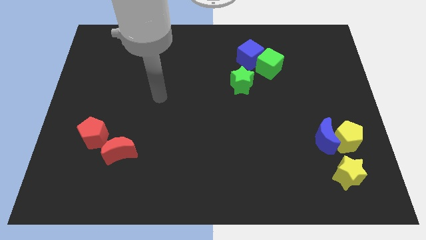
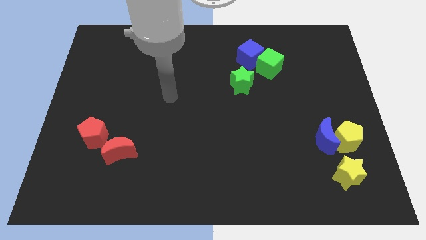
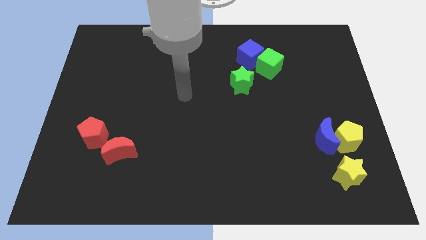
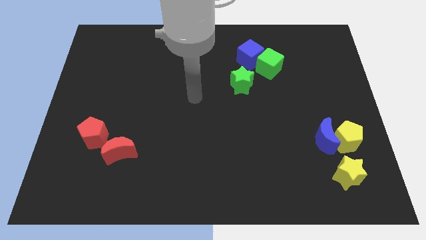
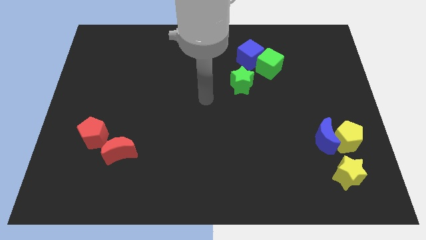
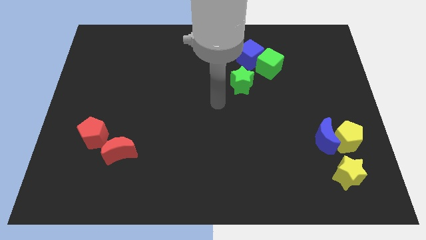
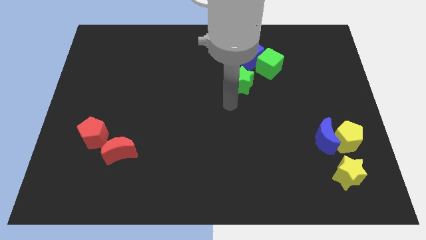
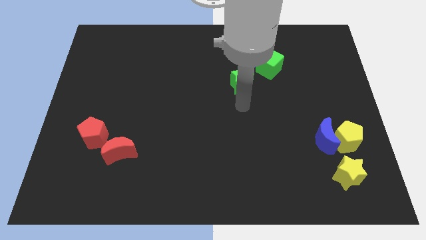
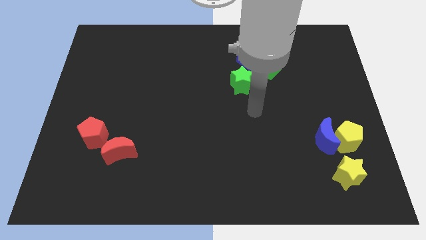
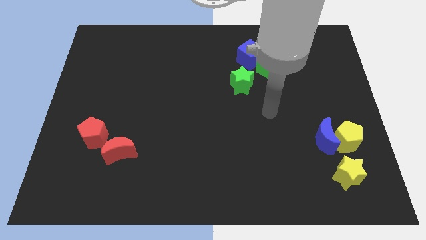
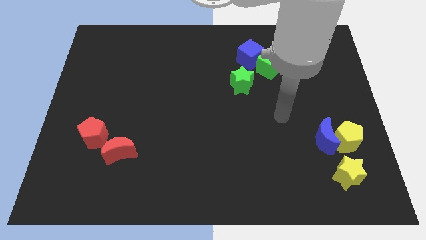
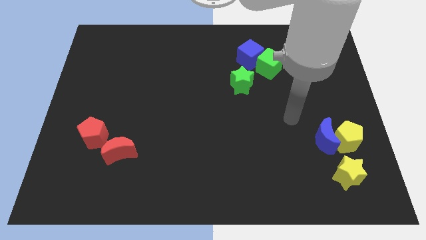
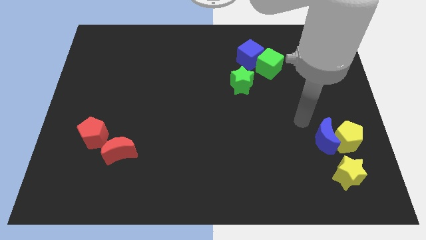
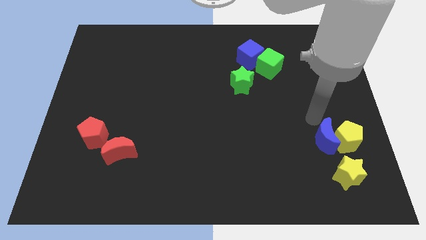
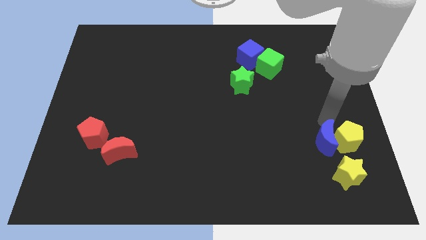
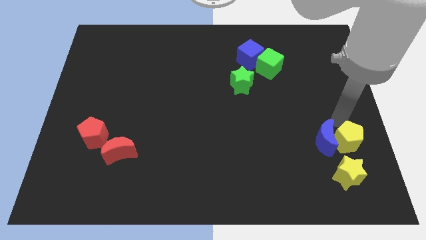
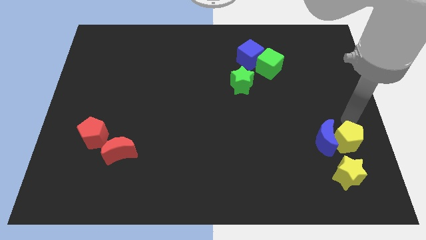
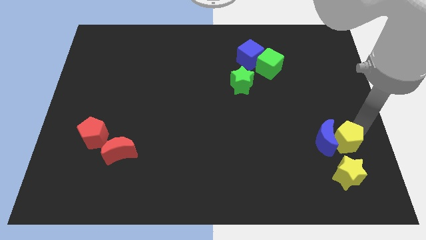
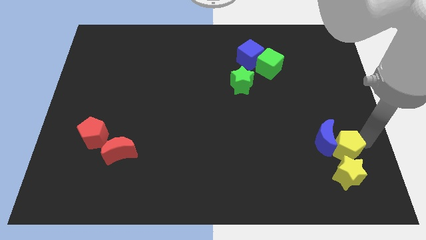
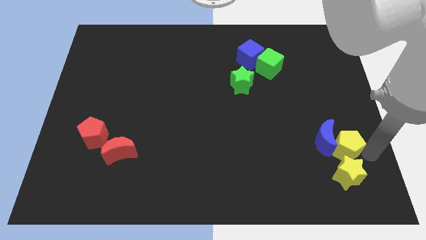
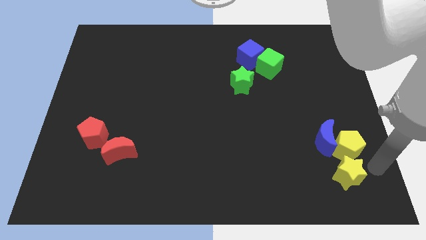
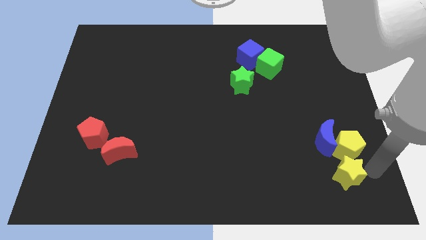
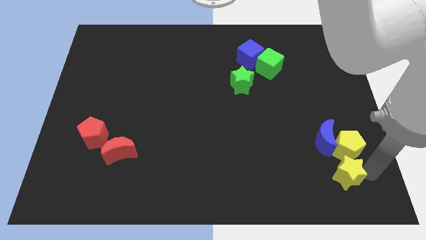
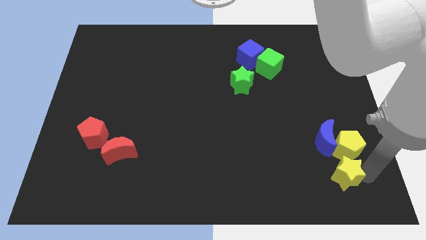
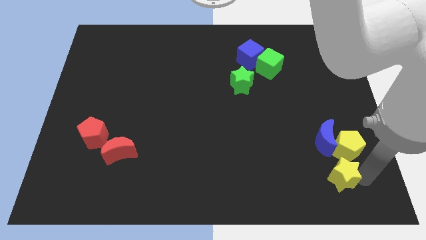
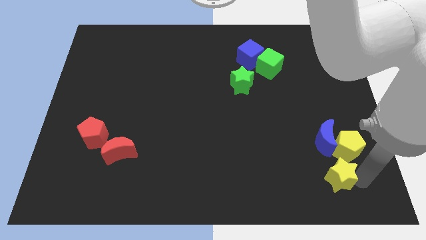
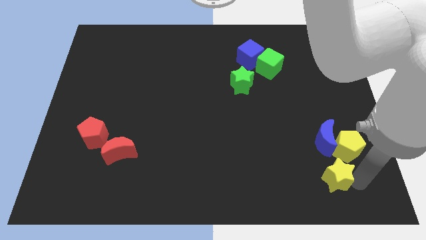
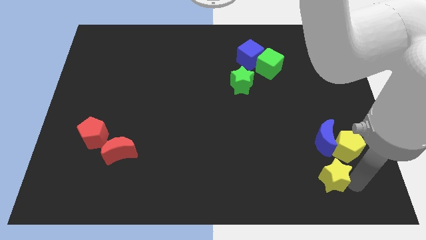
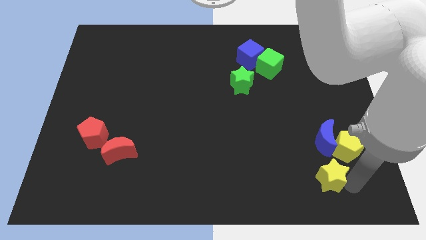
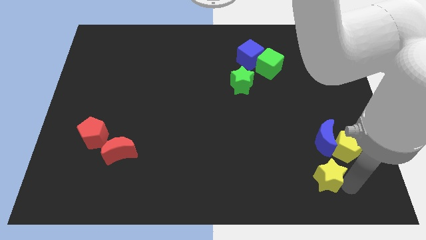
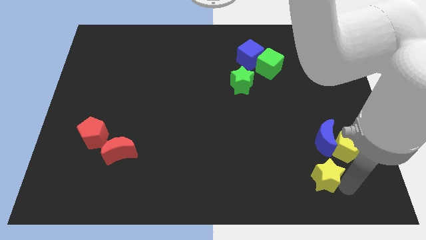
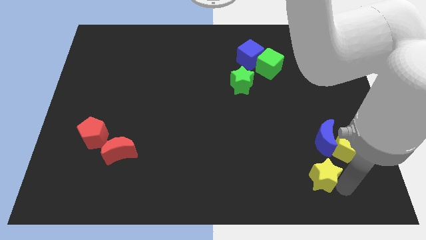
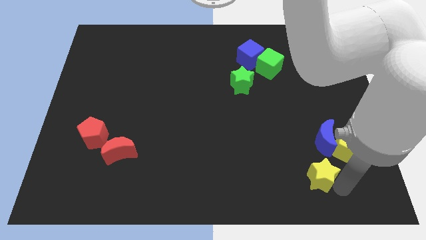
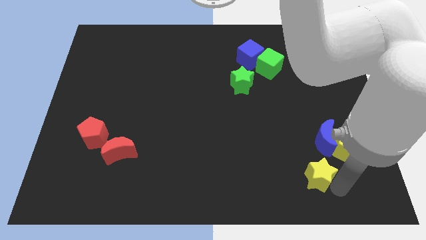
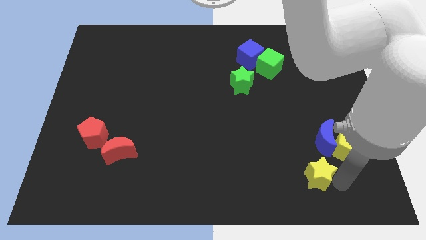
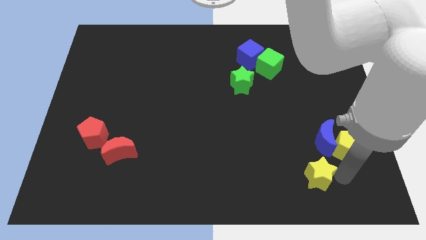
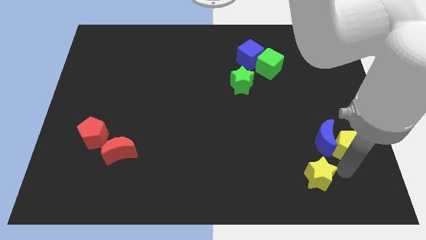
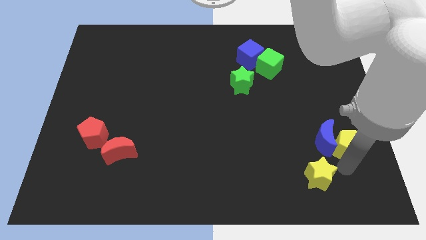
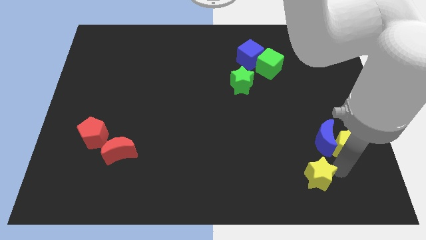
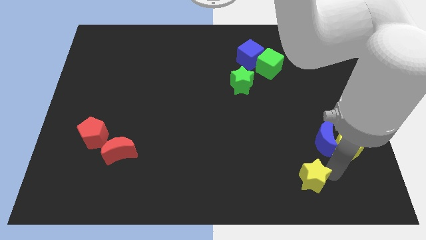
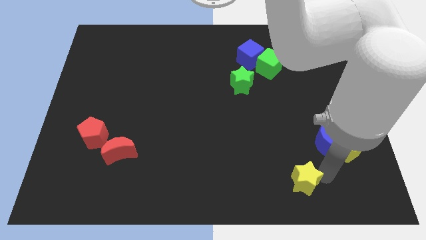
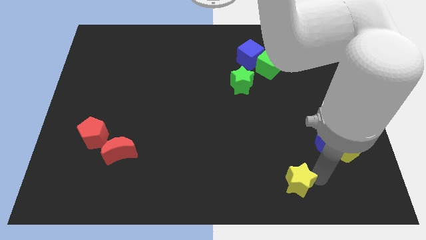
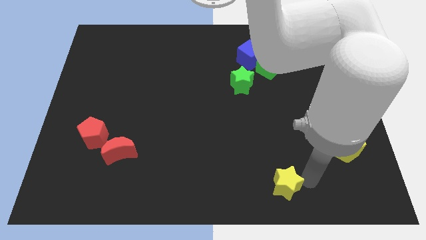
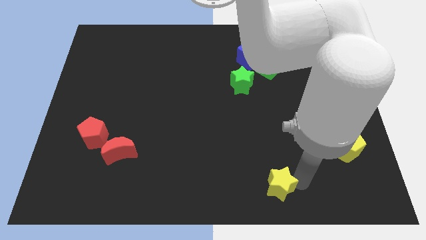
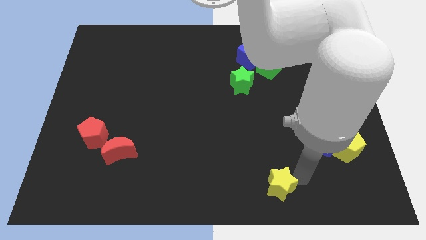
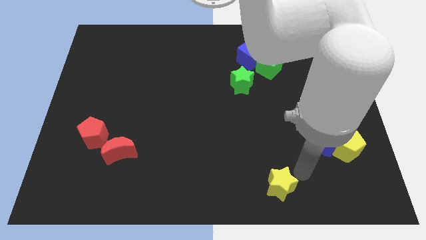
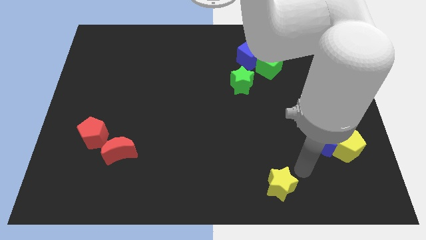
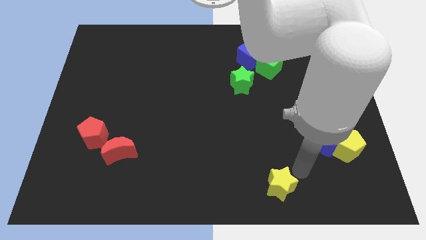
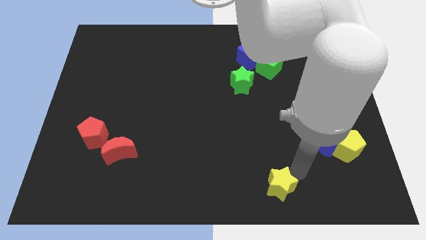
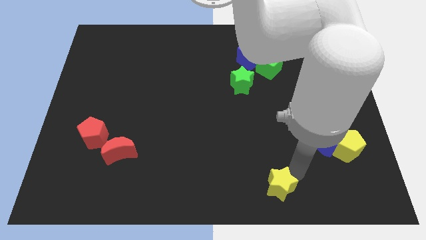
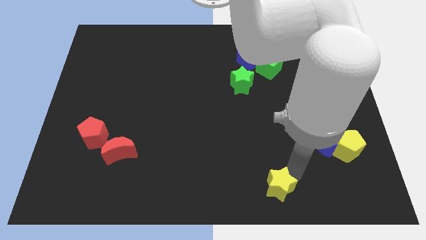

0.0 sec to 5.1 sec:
push the yellow star to the bottom side

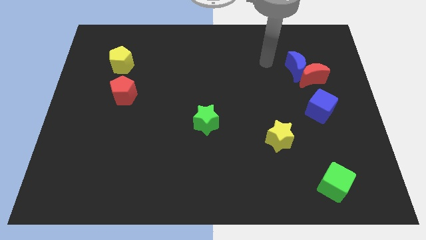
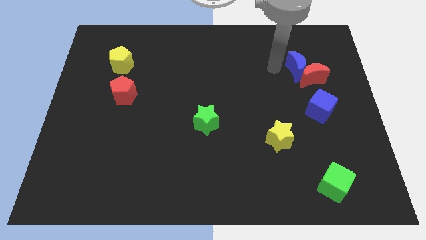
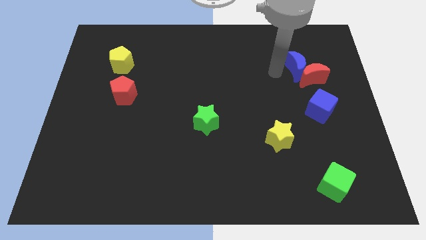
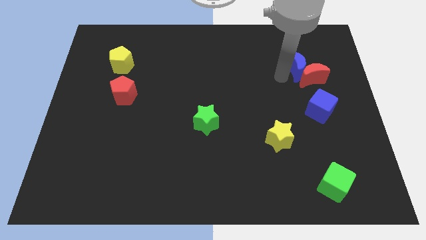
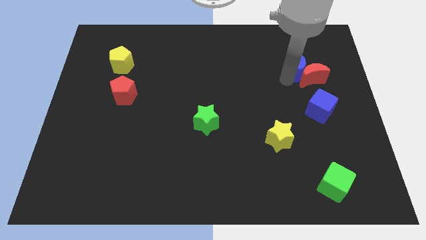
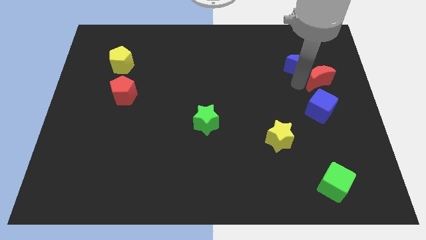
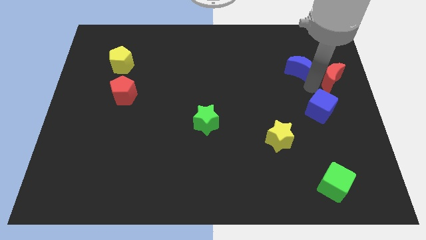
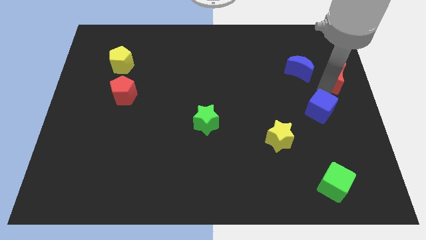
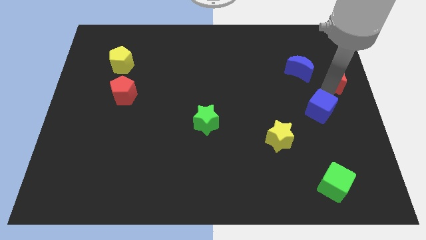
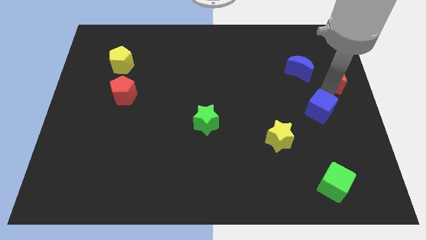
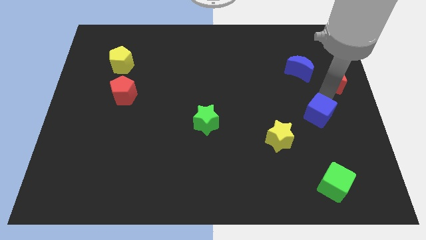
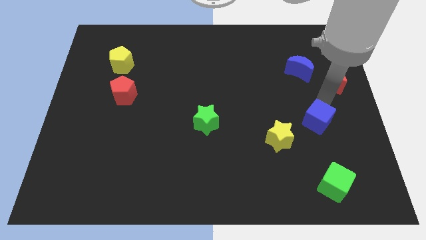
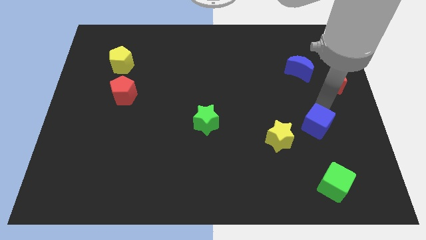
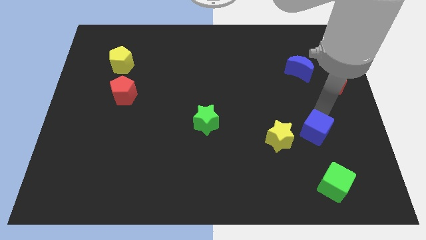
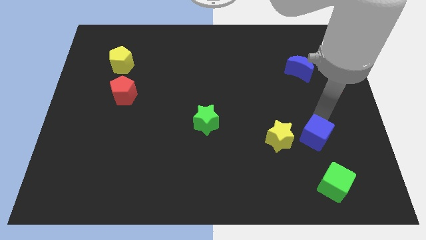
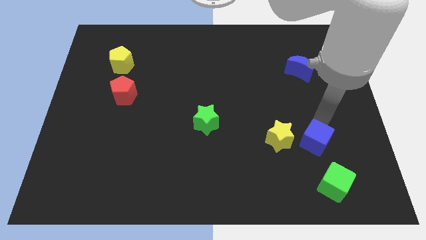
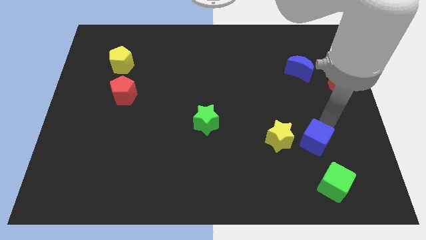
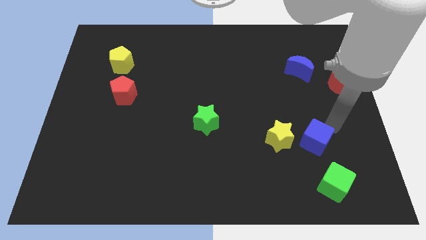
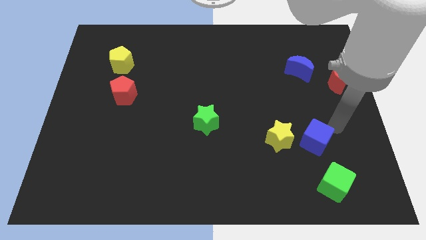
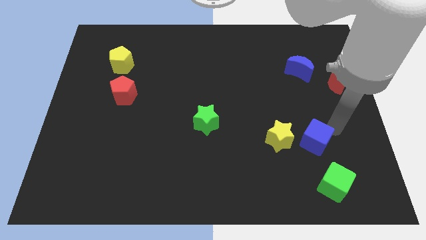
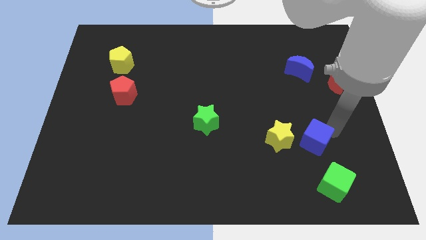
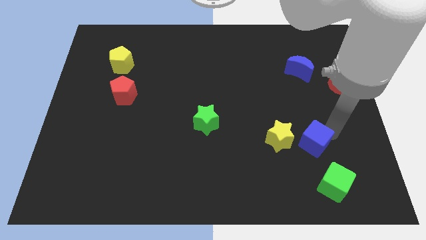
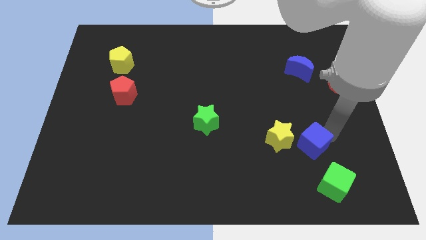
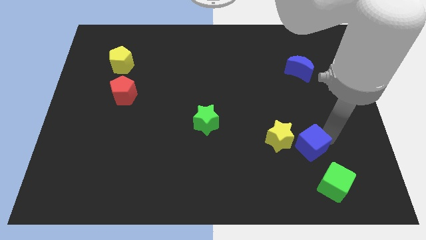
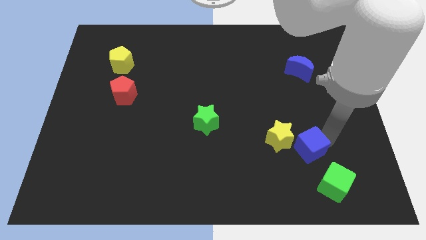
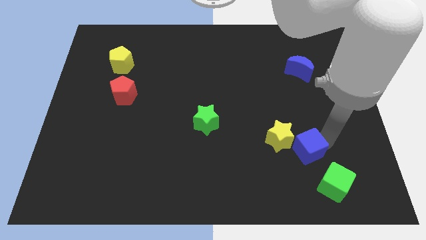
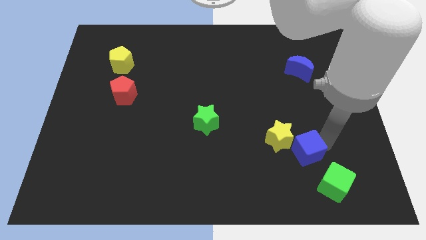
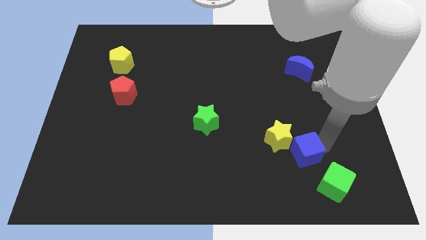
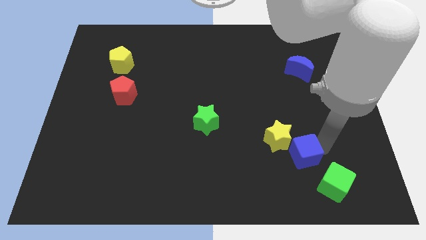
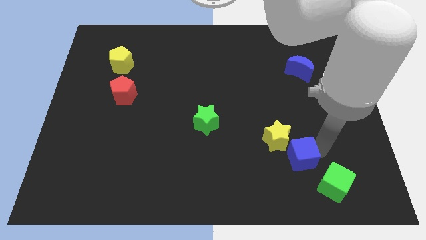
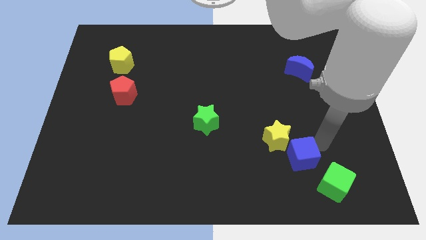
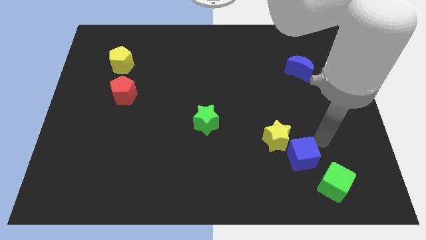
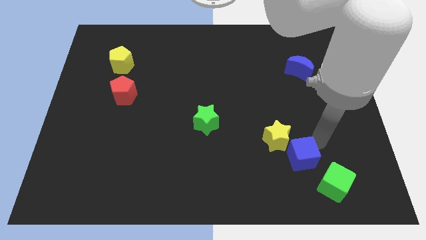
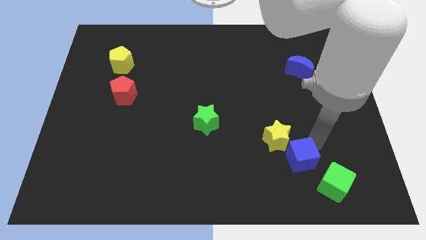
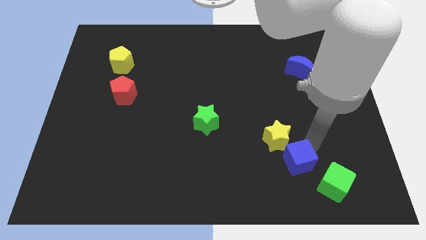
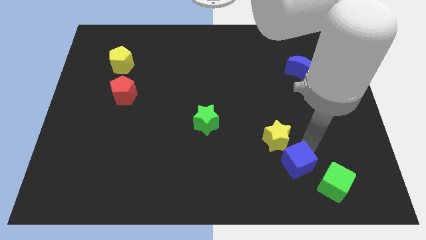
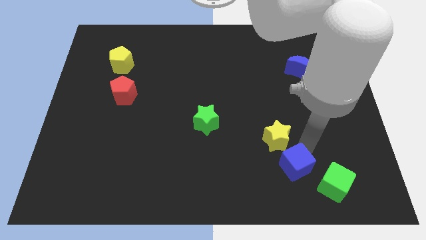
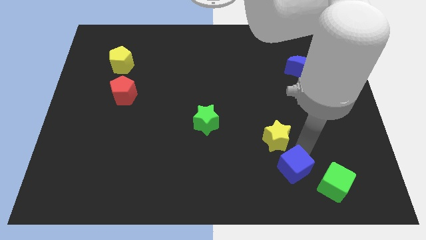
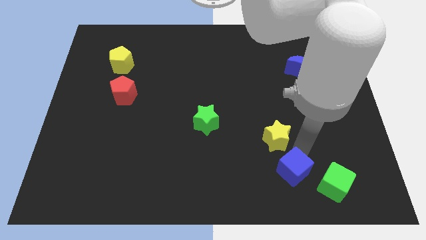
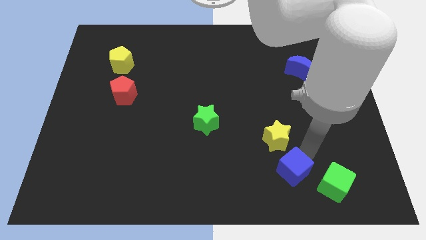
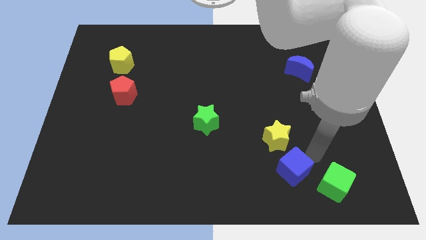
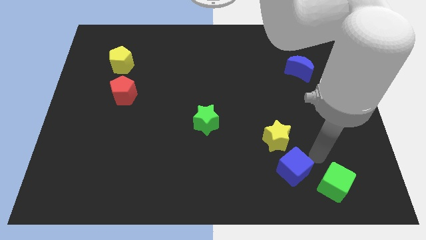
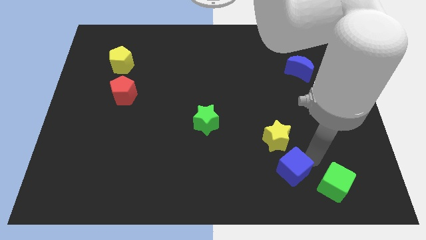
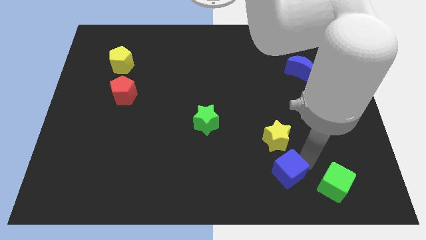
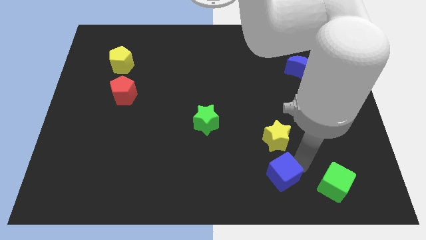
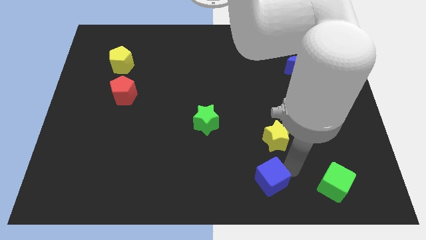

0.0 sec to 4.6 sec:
move the blue cube to the bottom side
